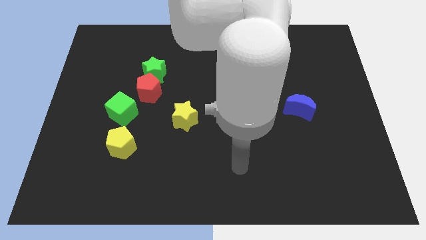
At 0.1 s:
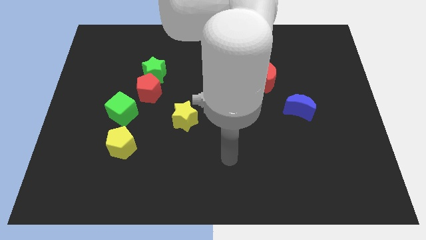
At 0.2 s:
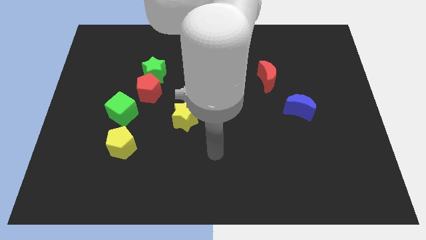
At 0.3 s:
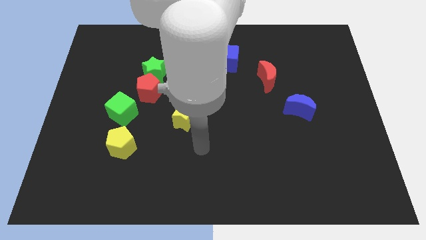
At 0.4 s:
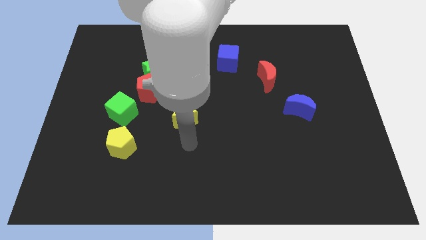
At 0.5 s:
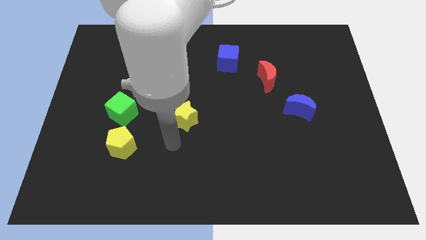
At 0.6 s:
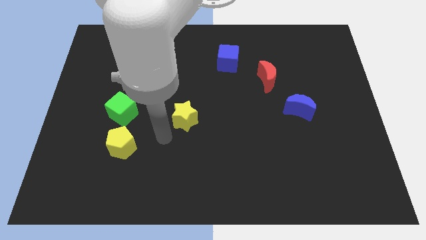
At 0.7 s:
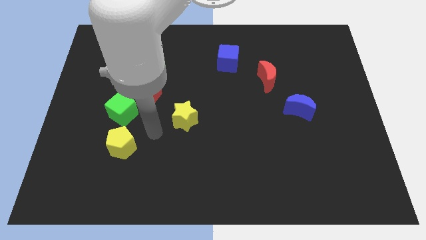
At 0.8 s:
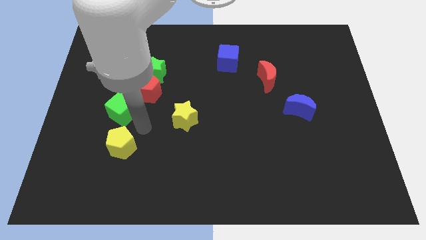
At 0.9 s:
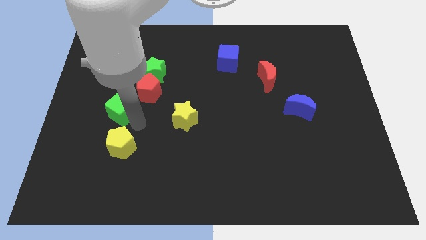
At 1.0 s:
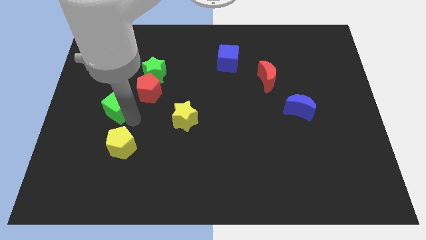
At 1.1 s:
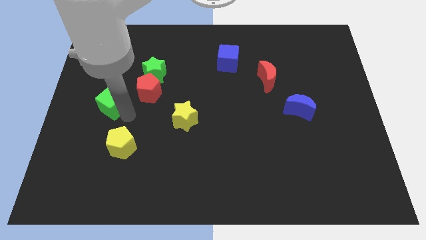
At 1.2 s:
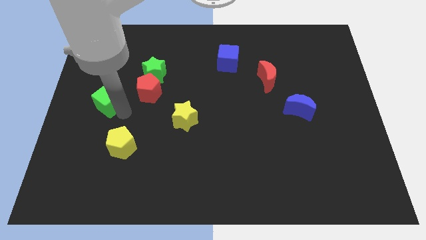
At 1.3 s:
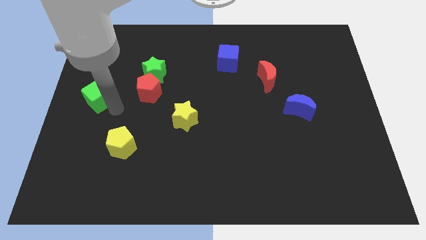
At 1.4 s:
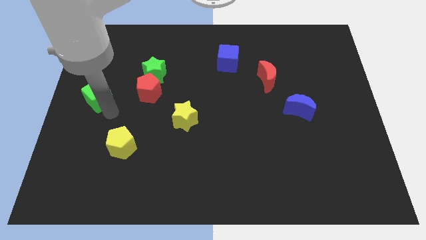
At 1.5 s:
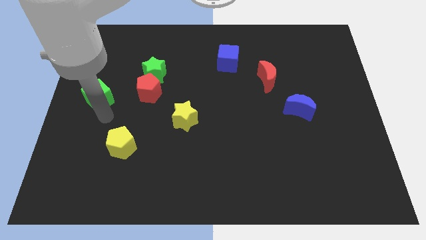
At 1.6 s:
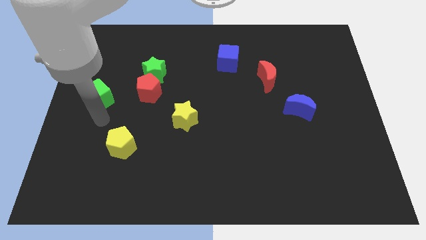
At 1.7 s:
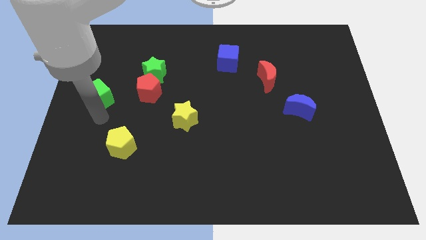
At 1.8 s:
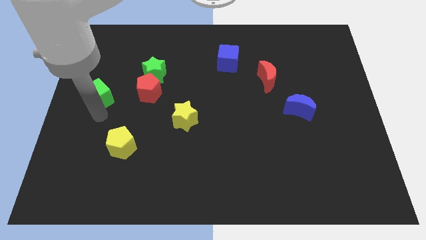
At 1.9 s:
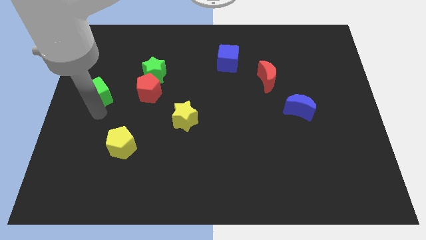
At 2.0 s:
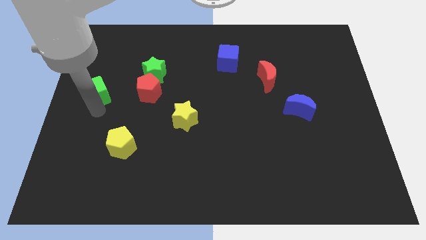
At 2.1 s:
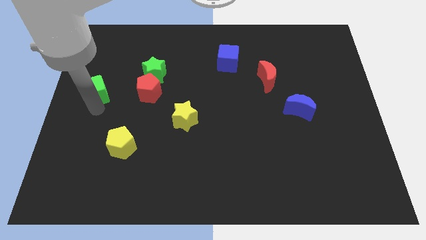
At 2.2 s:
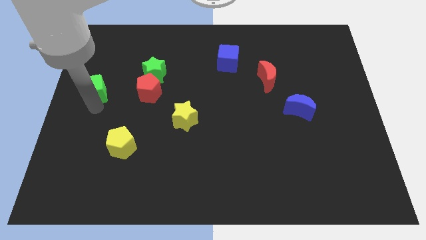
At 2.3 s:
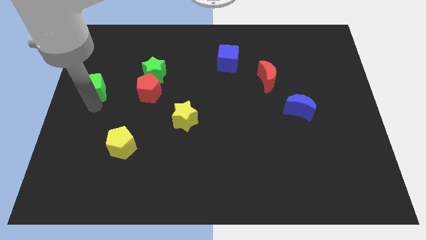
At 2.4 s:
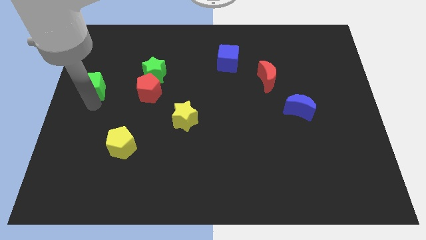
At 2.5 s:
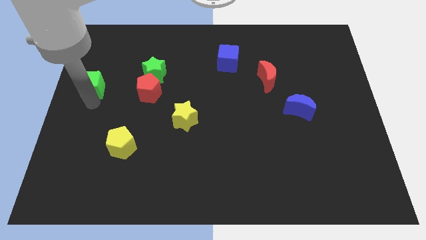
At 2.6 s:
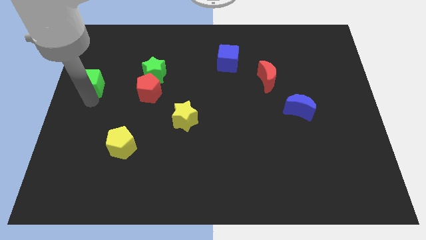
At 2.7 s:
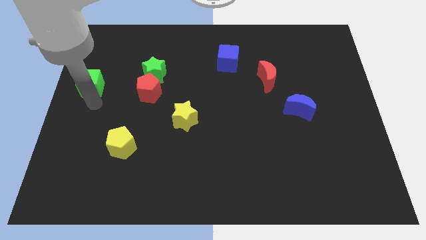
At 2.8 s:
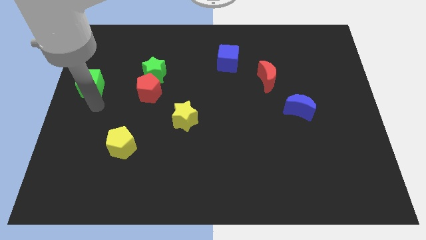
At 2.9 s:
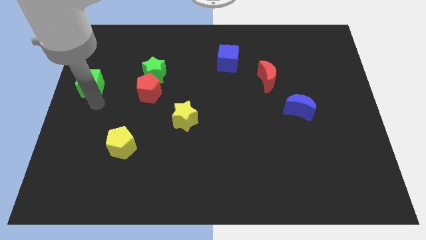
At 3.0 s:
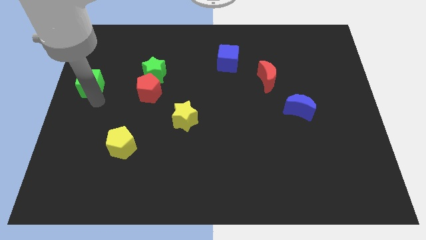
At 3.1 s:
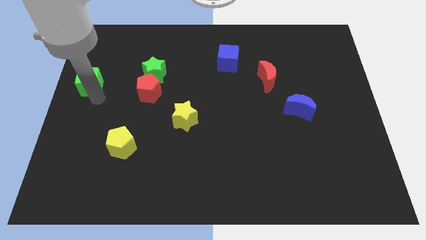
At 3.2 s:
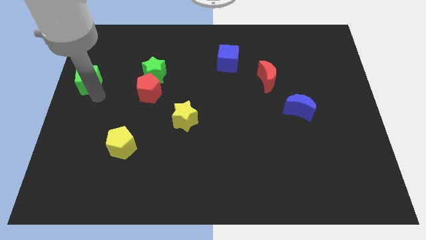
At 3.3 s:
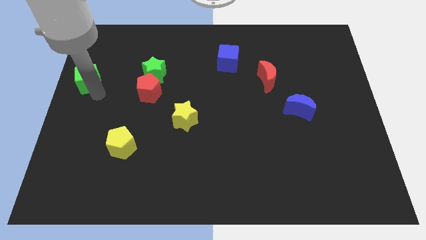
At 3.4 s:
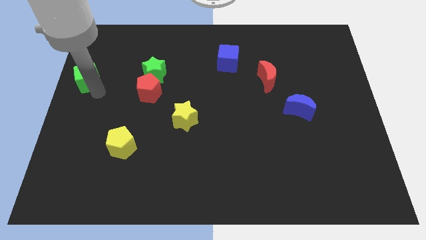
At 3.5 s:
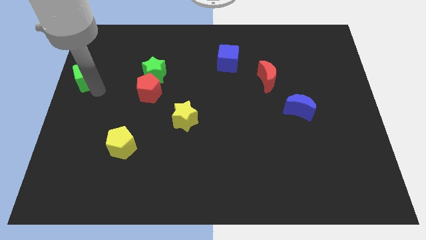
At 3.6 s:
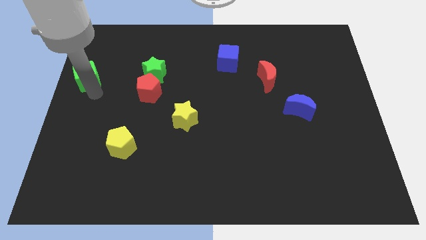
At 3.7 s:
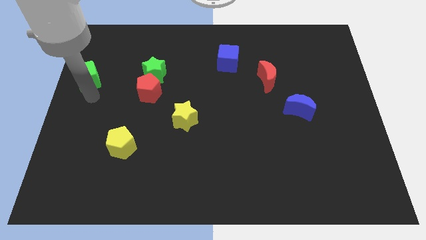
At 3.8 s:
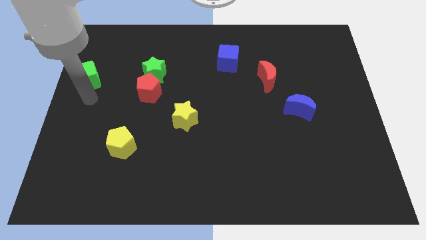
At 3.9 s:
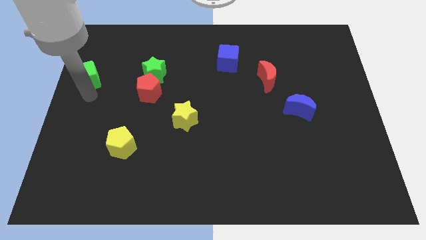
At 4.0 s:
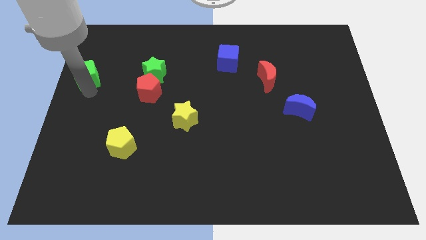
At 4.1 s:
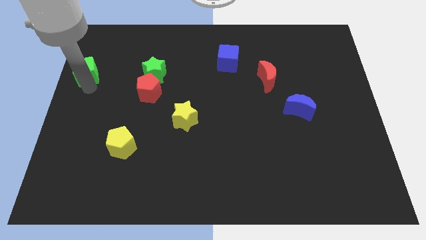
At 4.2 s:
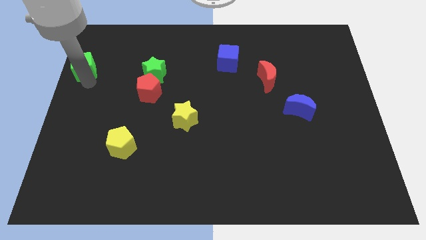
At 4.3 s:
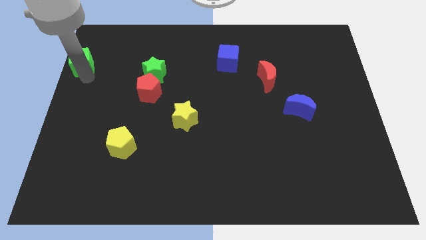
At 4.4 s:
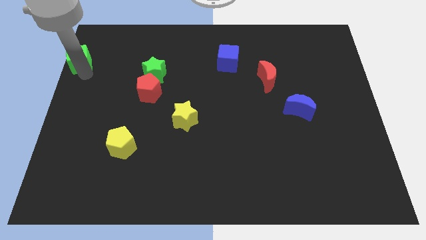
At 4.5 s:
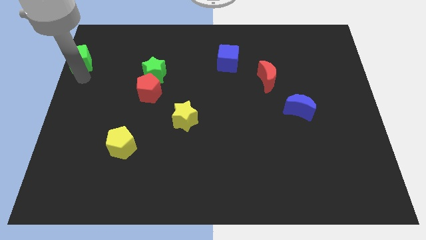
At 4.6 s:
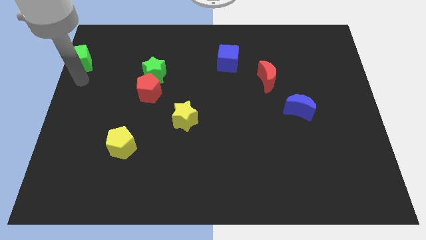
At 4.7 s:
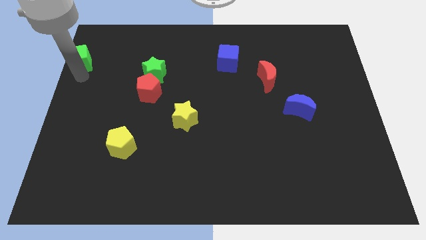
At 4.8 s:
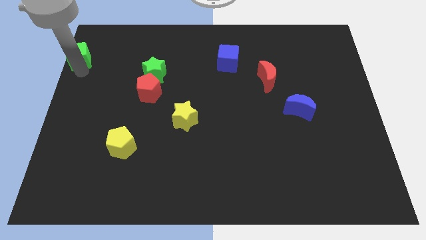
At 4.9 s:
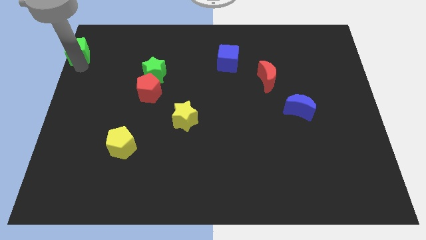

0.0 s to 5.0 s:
push the green cube to the top left of the board

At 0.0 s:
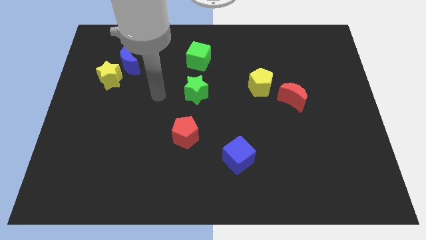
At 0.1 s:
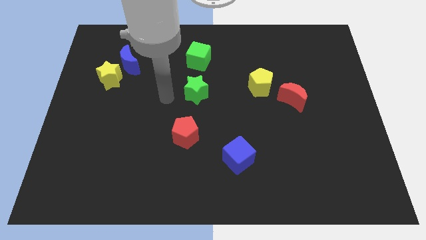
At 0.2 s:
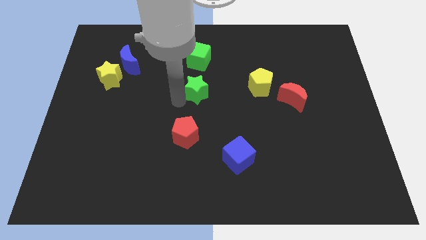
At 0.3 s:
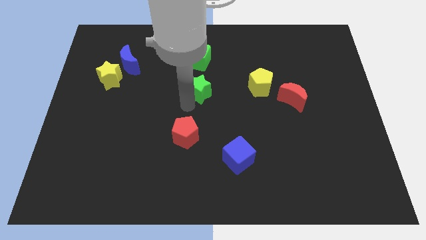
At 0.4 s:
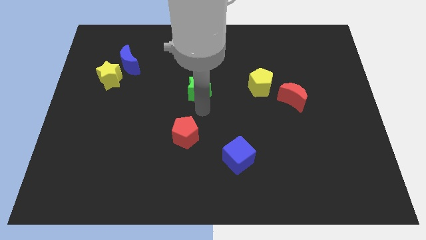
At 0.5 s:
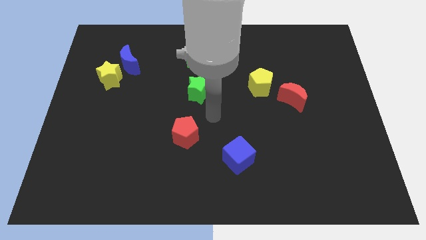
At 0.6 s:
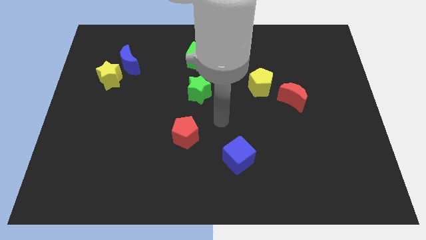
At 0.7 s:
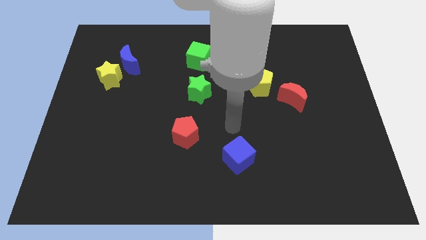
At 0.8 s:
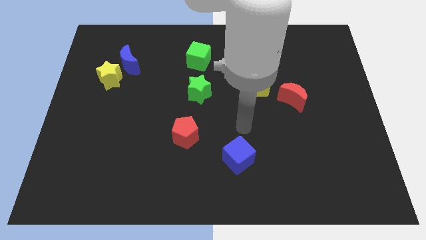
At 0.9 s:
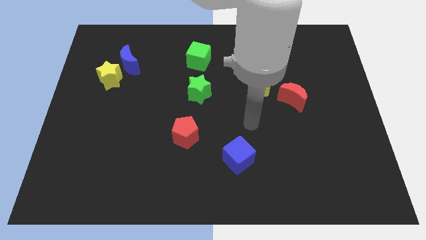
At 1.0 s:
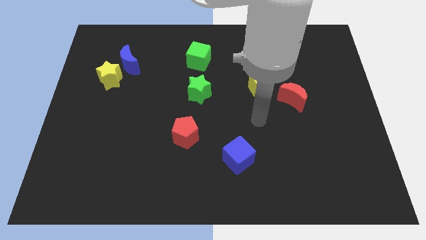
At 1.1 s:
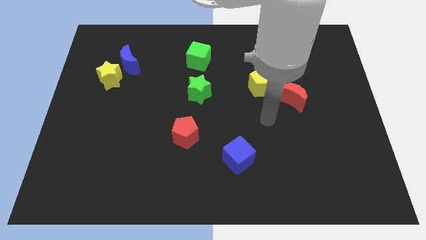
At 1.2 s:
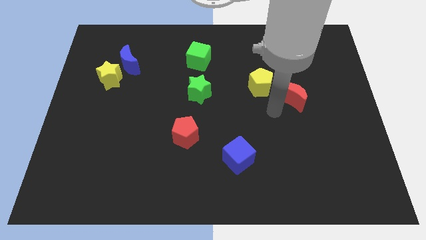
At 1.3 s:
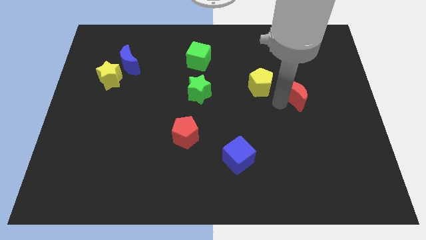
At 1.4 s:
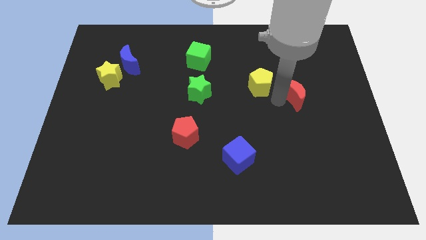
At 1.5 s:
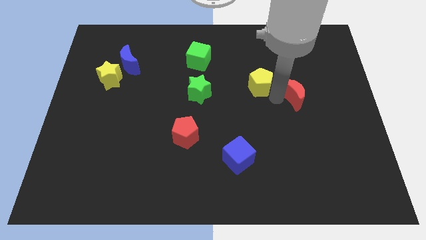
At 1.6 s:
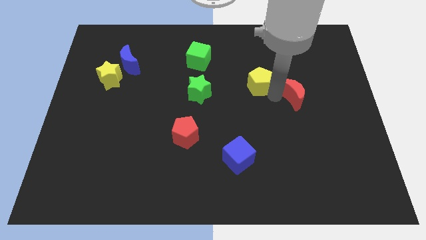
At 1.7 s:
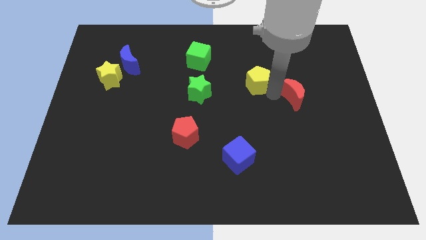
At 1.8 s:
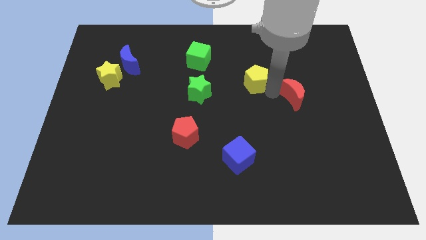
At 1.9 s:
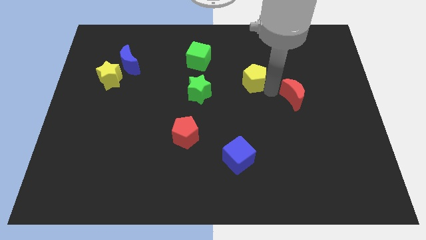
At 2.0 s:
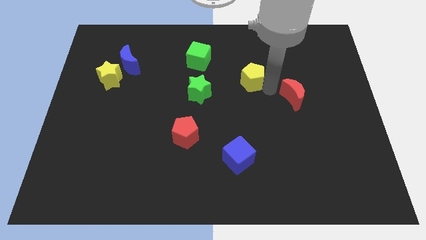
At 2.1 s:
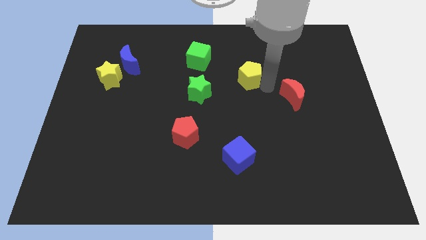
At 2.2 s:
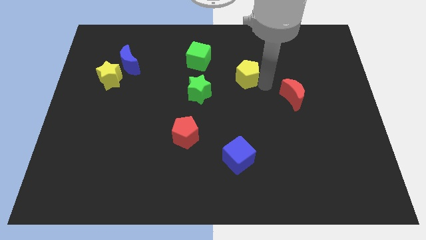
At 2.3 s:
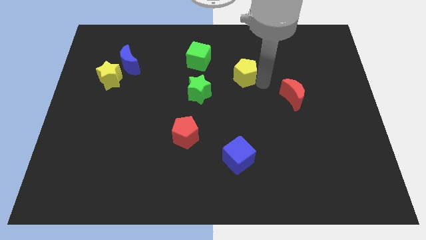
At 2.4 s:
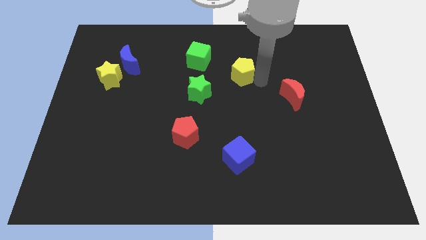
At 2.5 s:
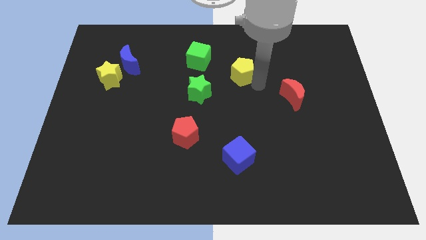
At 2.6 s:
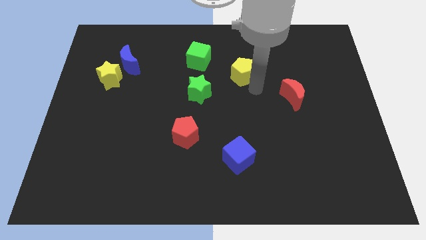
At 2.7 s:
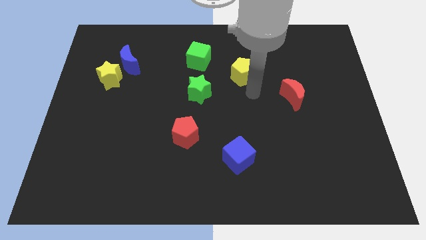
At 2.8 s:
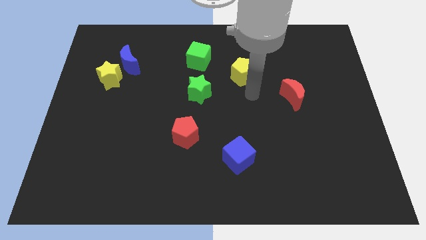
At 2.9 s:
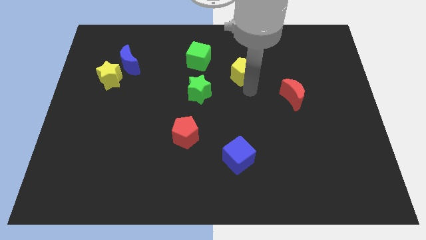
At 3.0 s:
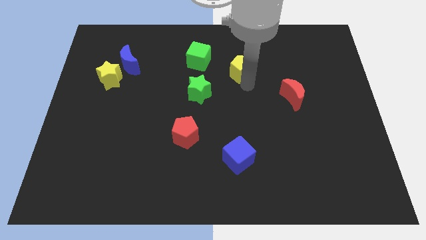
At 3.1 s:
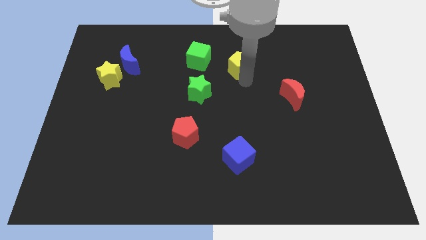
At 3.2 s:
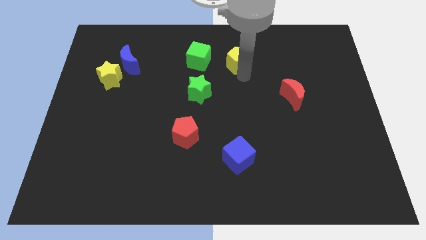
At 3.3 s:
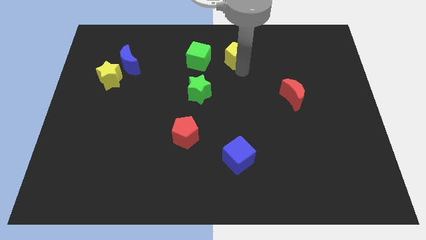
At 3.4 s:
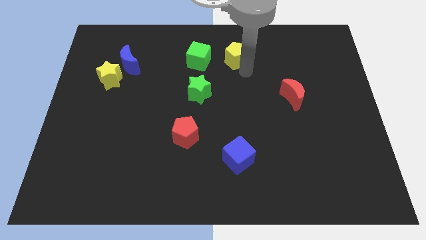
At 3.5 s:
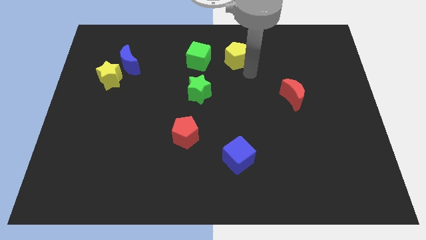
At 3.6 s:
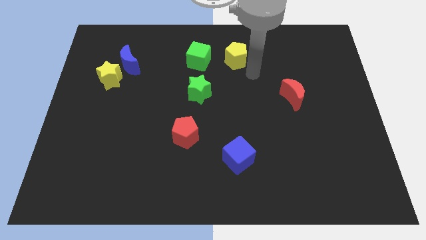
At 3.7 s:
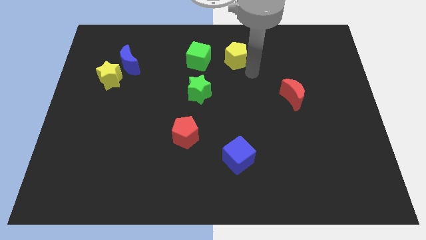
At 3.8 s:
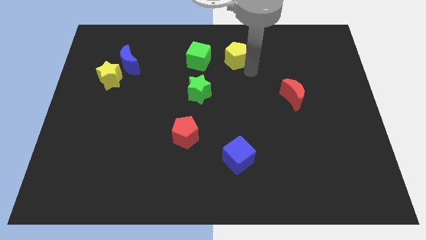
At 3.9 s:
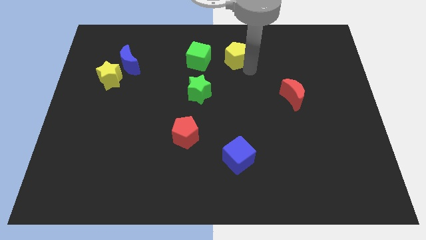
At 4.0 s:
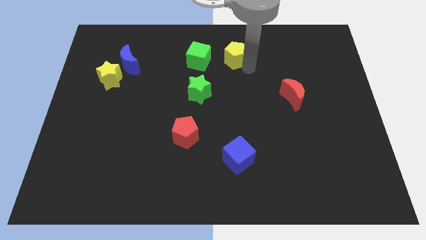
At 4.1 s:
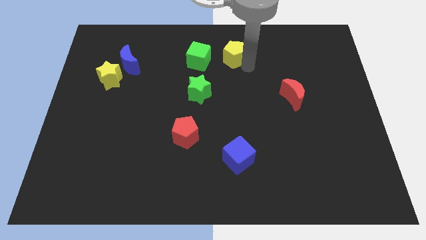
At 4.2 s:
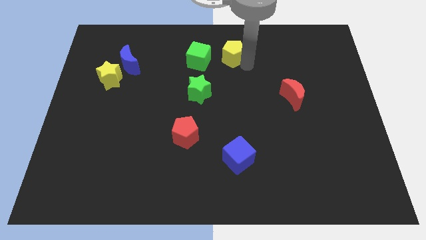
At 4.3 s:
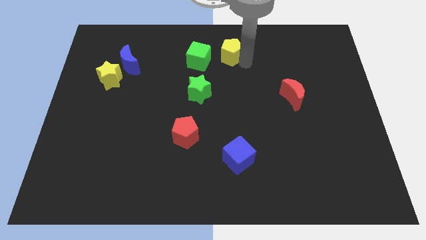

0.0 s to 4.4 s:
put the yellow pentagon to the top side
